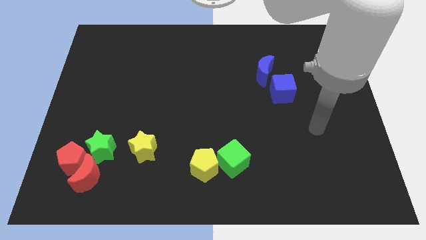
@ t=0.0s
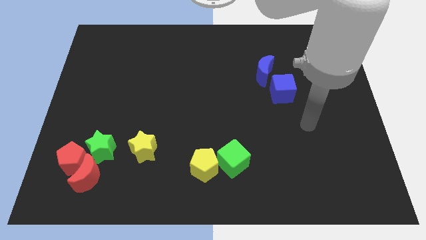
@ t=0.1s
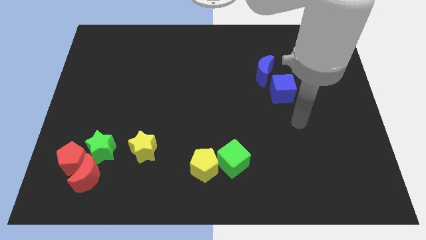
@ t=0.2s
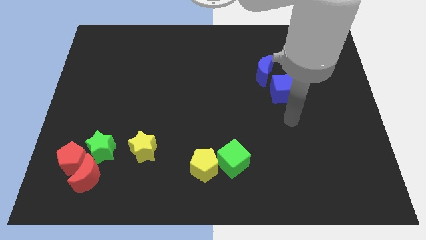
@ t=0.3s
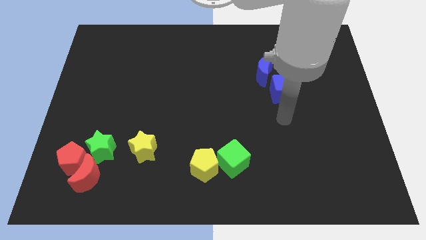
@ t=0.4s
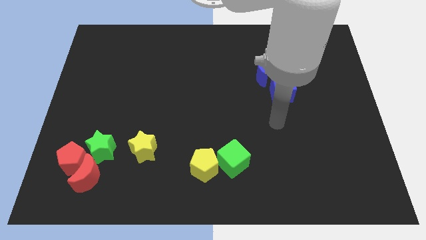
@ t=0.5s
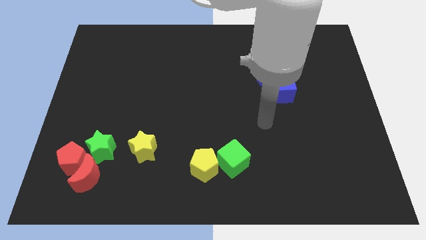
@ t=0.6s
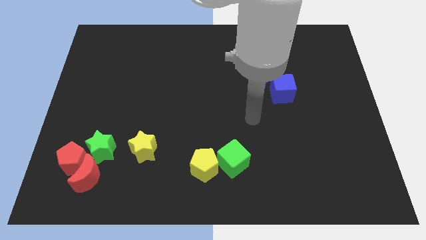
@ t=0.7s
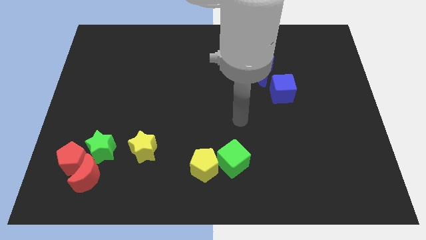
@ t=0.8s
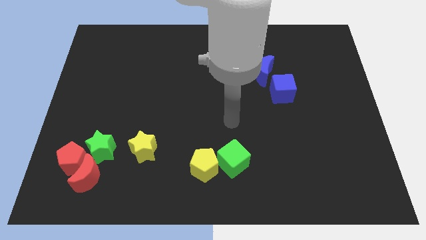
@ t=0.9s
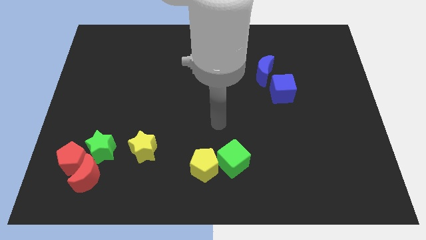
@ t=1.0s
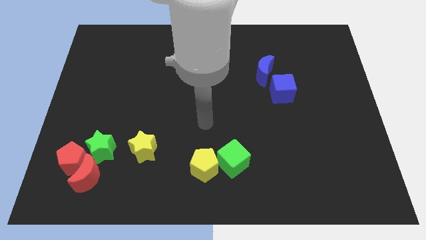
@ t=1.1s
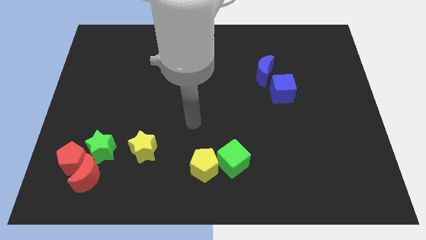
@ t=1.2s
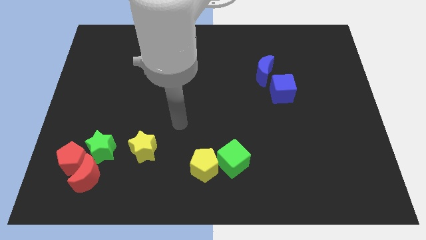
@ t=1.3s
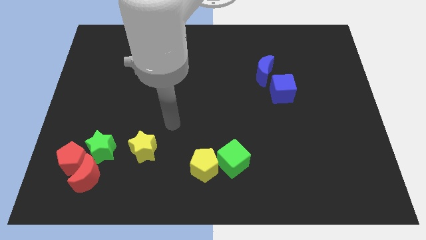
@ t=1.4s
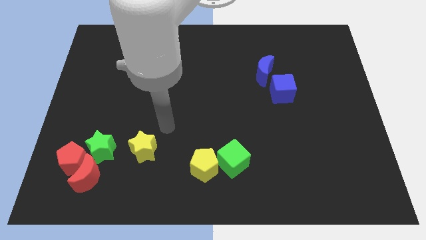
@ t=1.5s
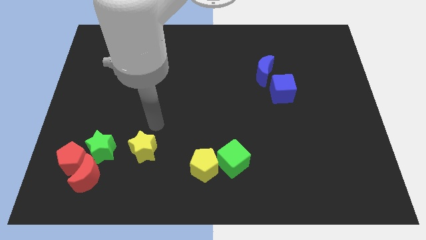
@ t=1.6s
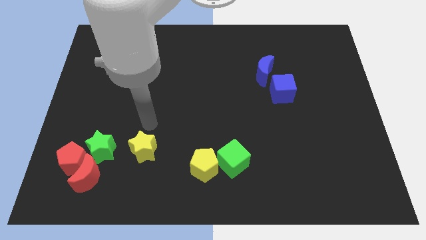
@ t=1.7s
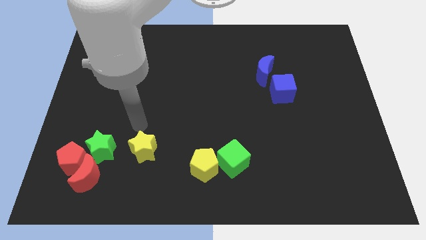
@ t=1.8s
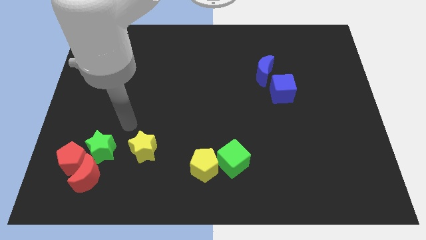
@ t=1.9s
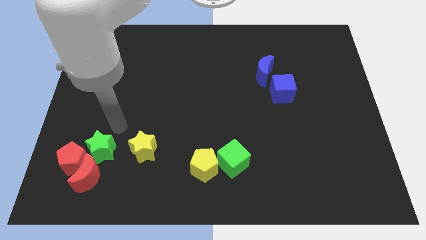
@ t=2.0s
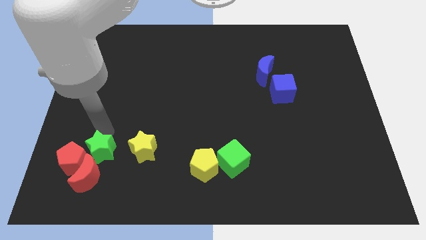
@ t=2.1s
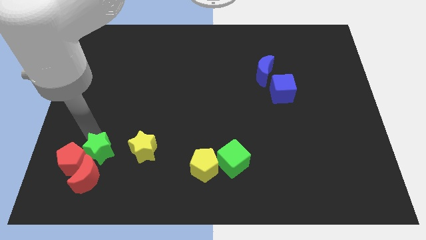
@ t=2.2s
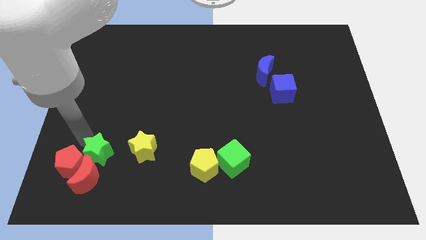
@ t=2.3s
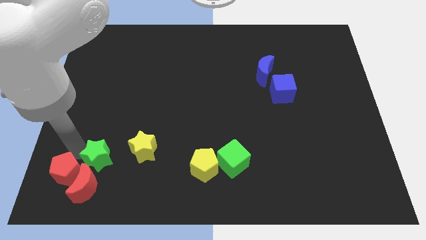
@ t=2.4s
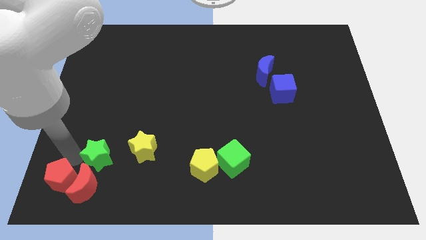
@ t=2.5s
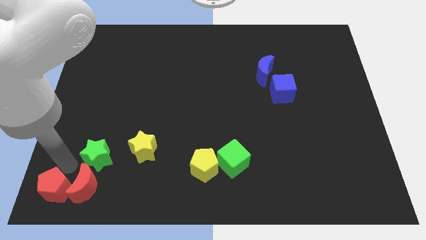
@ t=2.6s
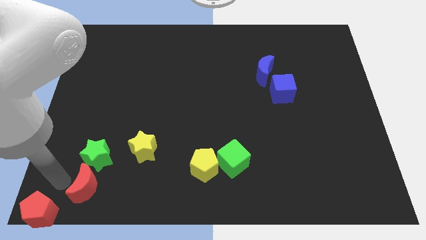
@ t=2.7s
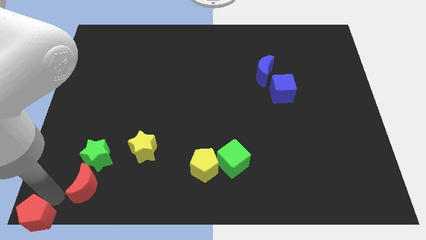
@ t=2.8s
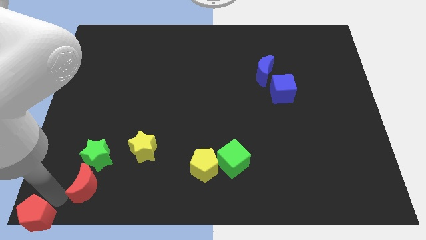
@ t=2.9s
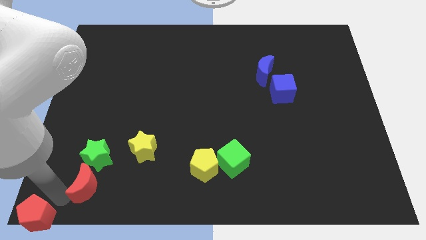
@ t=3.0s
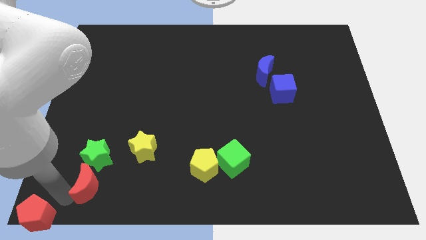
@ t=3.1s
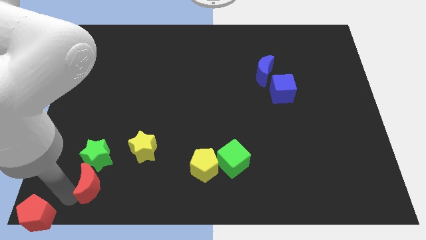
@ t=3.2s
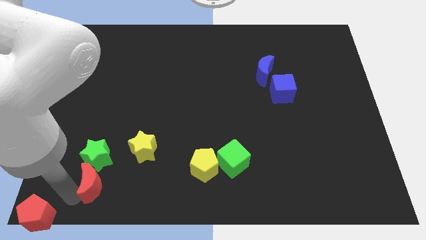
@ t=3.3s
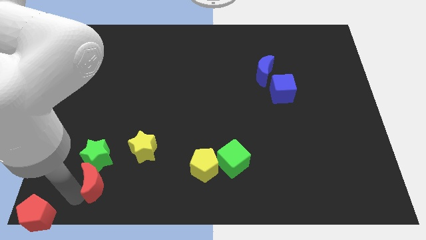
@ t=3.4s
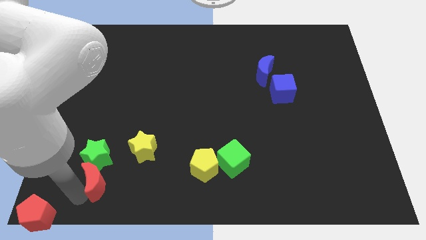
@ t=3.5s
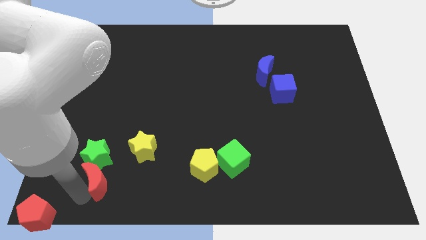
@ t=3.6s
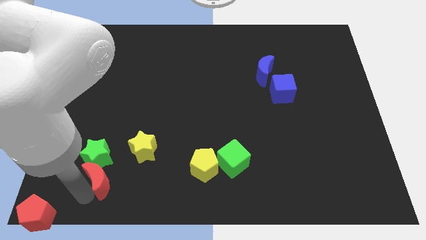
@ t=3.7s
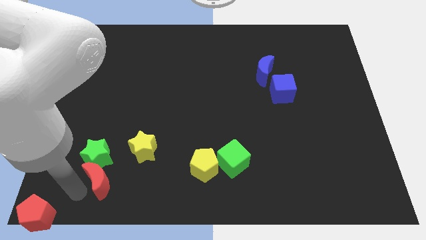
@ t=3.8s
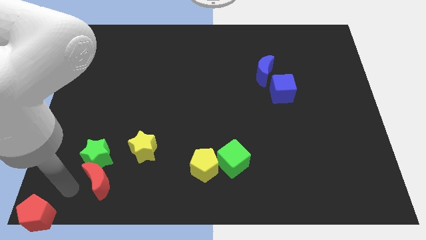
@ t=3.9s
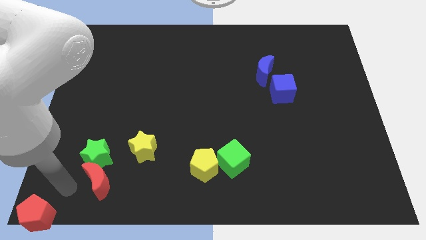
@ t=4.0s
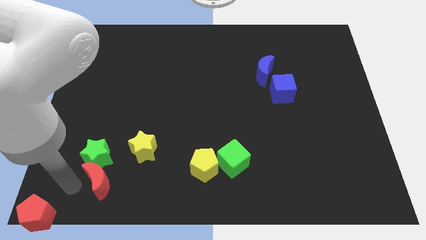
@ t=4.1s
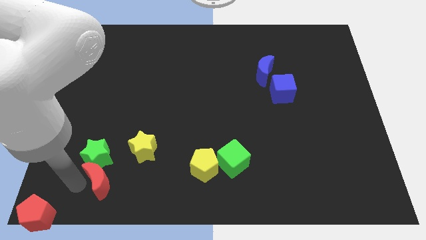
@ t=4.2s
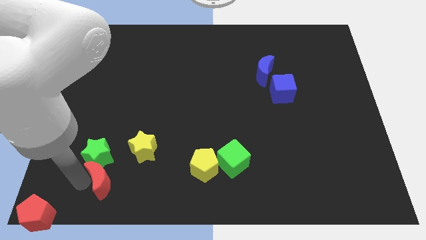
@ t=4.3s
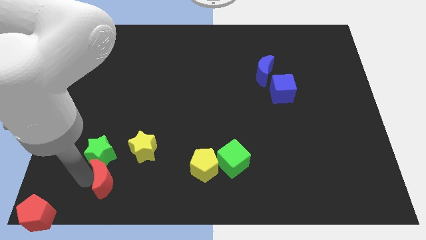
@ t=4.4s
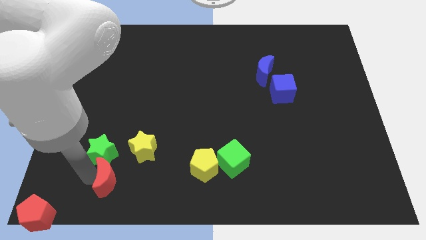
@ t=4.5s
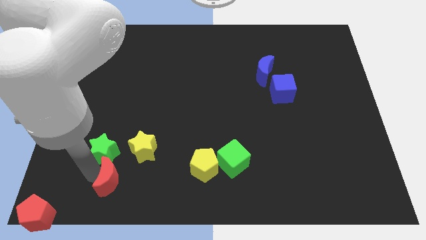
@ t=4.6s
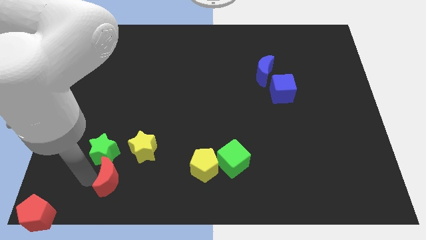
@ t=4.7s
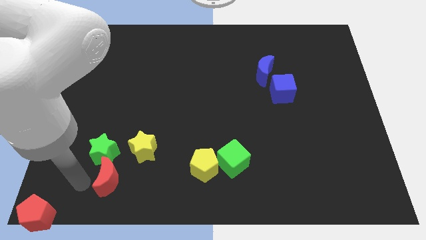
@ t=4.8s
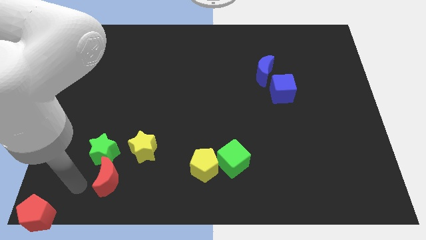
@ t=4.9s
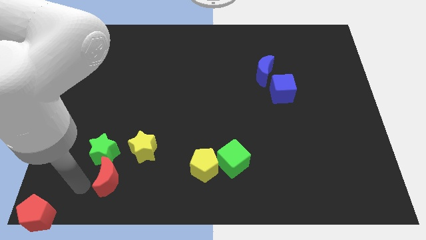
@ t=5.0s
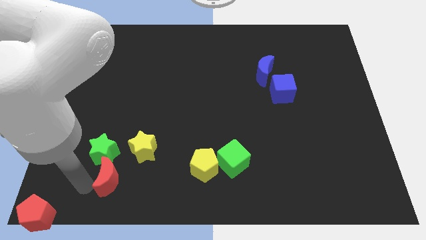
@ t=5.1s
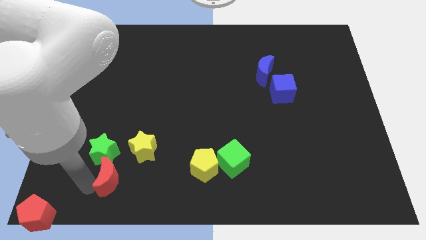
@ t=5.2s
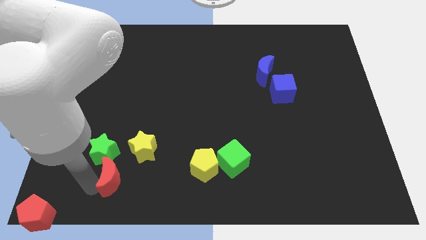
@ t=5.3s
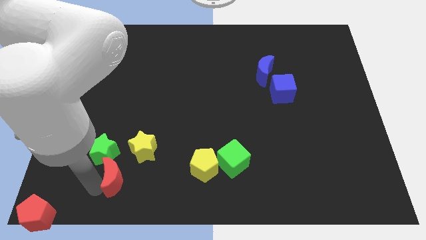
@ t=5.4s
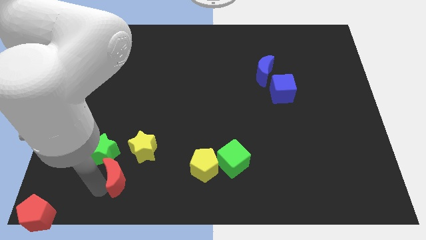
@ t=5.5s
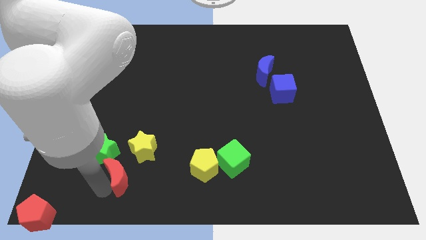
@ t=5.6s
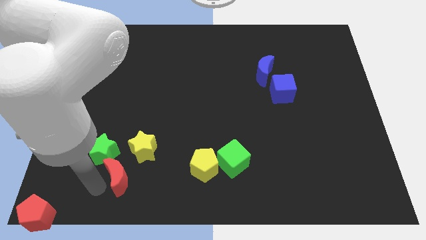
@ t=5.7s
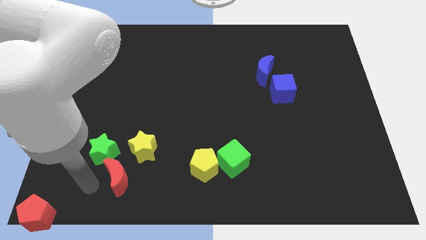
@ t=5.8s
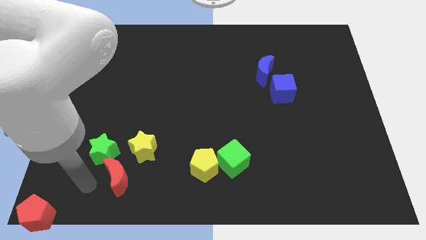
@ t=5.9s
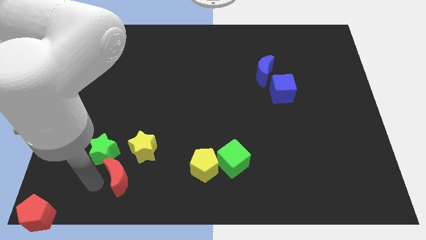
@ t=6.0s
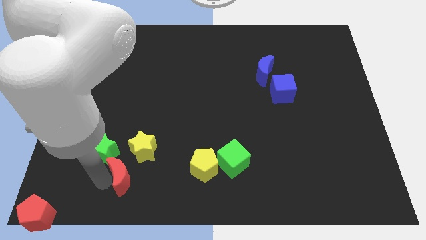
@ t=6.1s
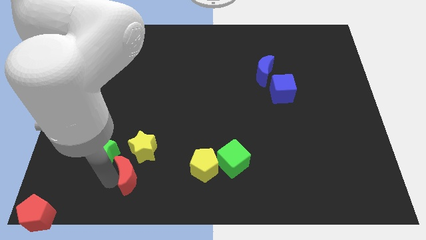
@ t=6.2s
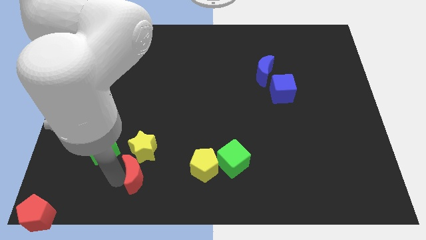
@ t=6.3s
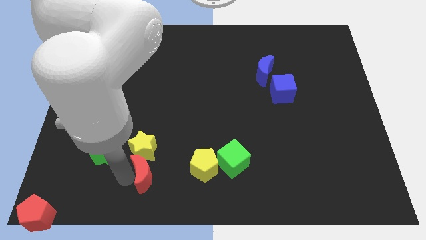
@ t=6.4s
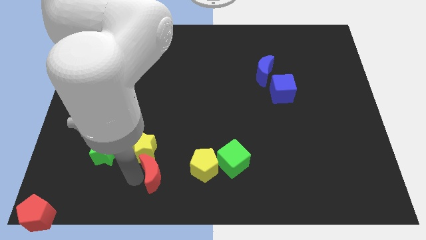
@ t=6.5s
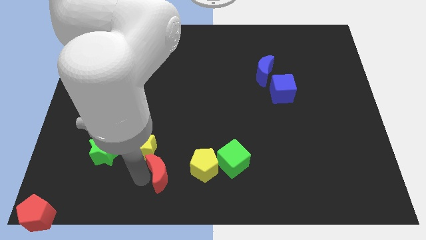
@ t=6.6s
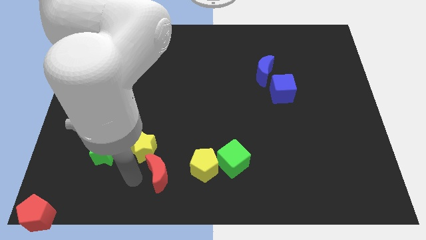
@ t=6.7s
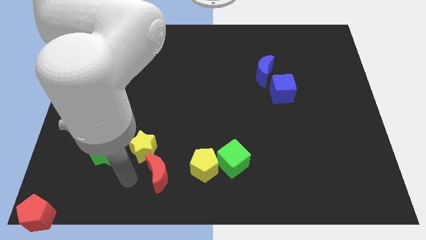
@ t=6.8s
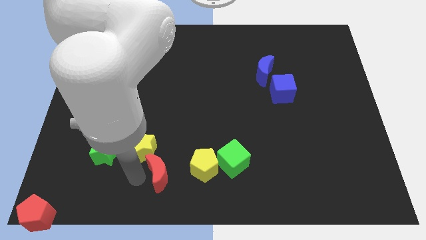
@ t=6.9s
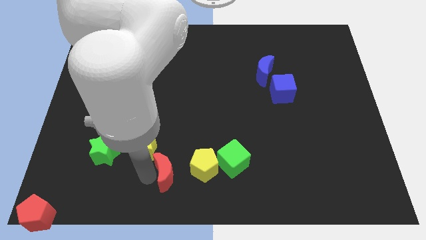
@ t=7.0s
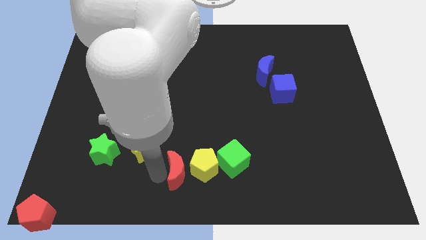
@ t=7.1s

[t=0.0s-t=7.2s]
put the red moon towards the yellow pentagon
